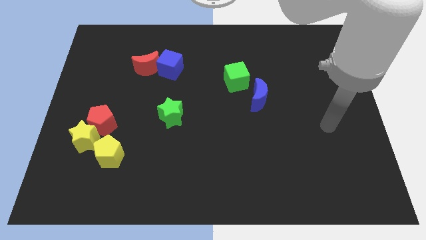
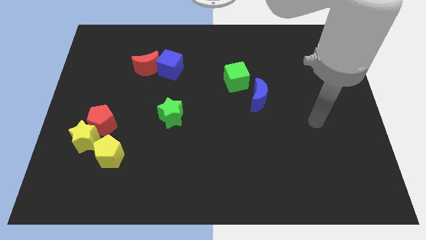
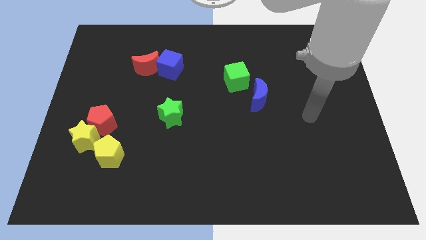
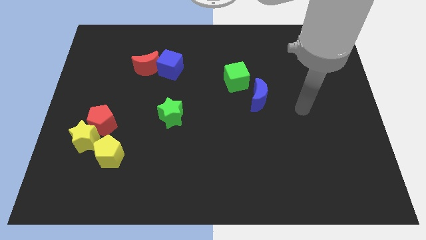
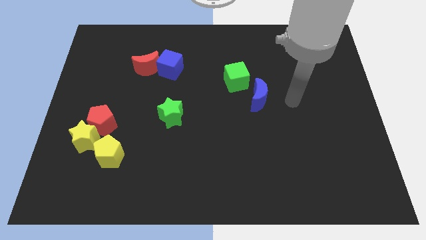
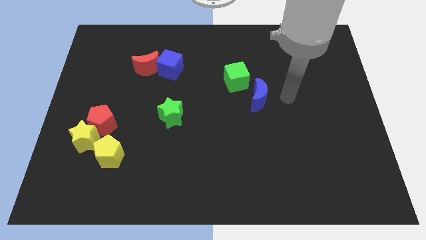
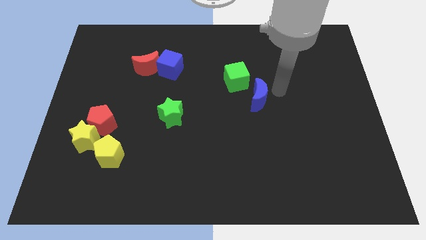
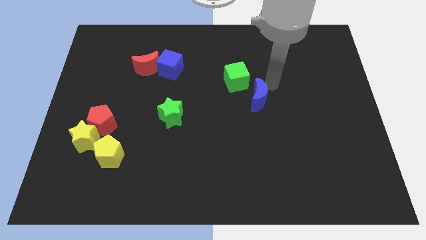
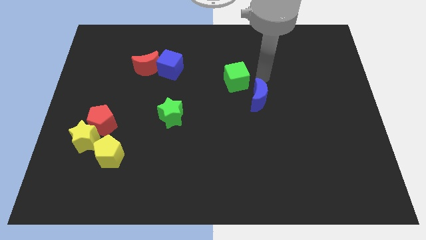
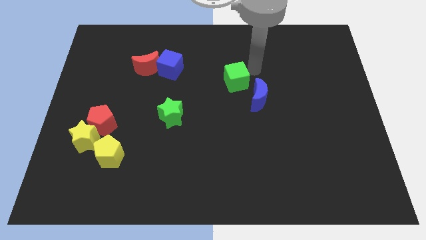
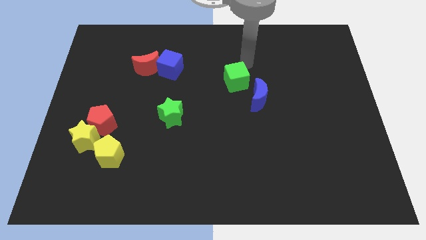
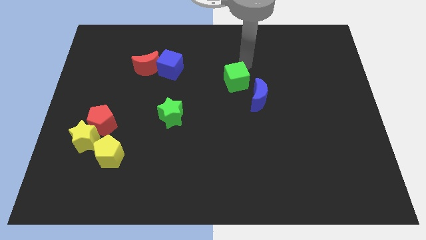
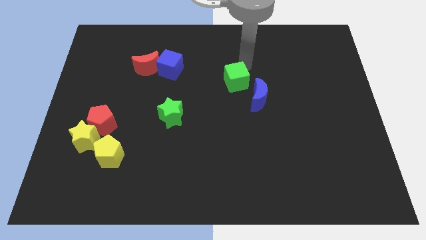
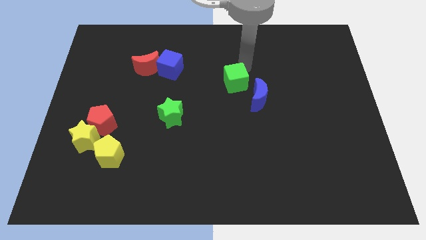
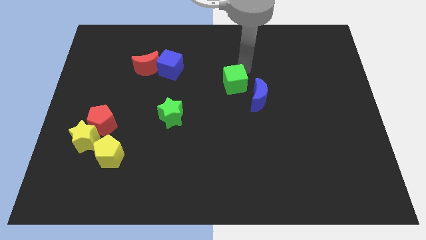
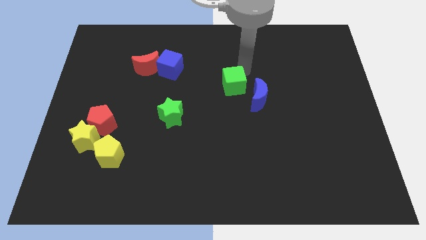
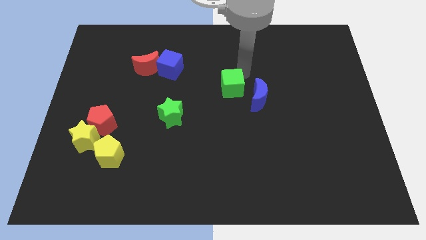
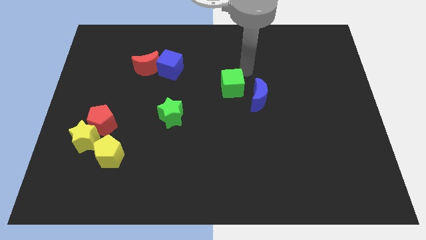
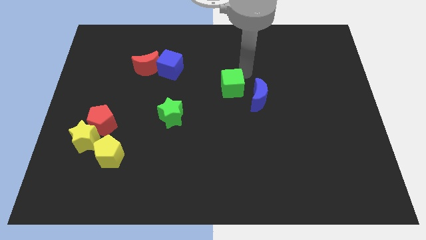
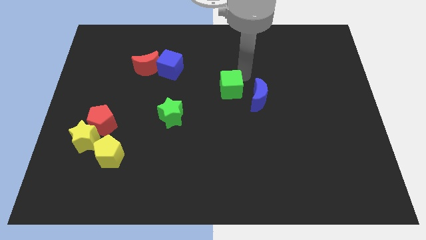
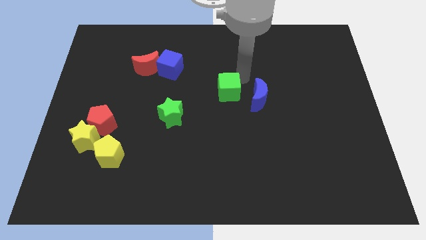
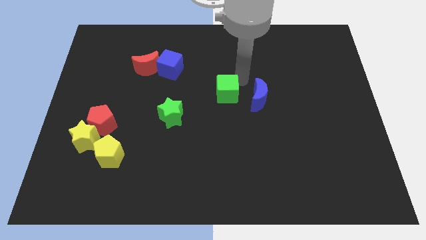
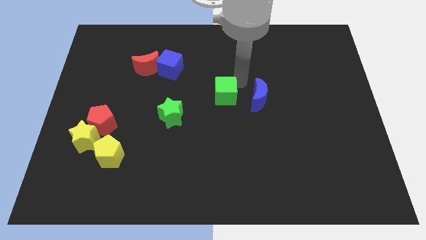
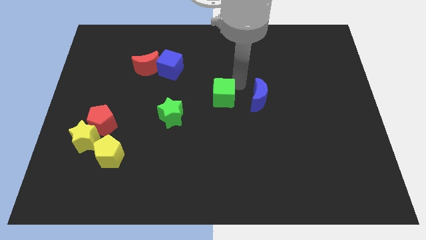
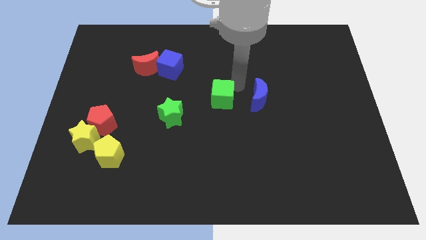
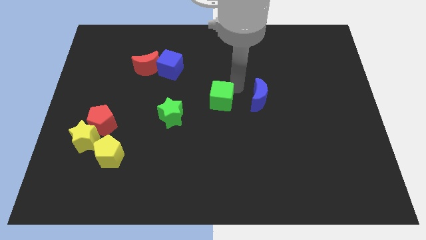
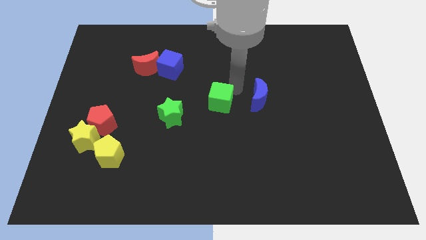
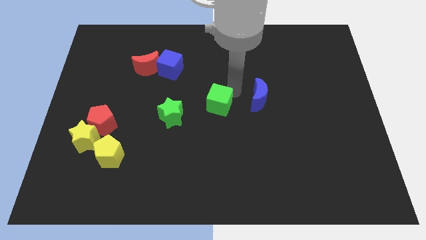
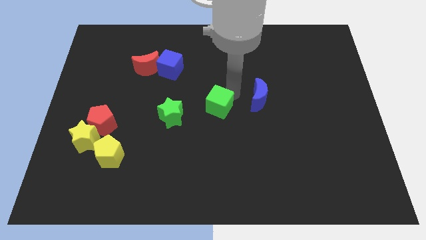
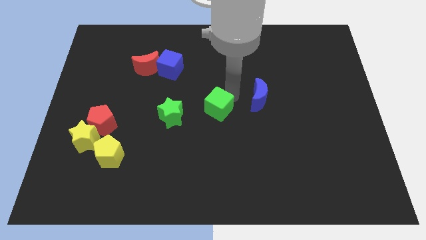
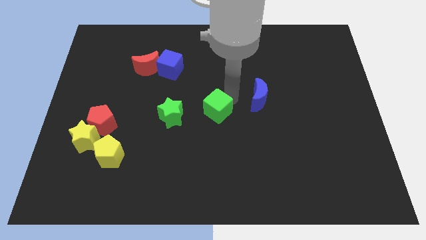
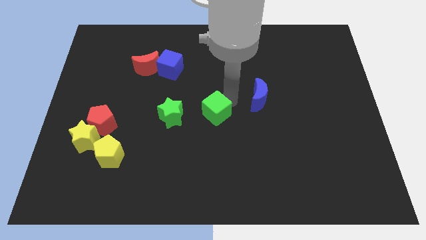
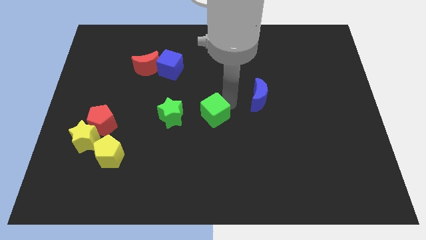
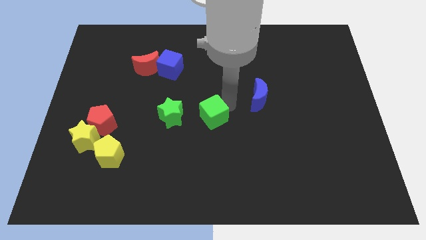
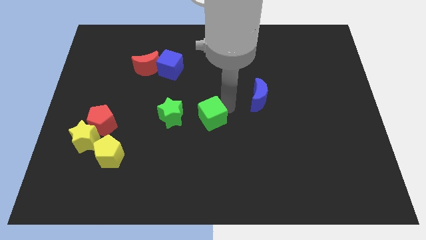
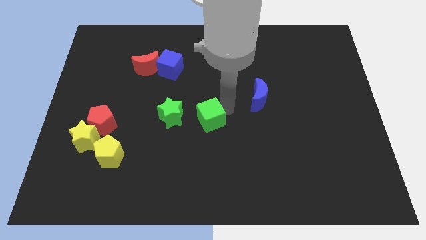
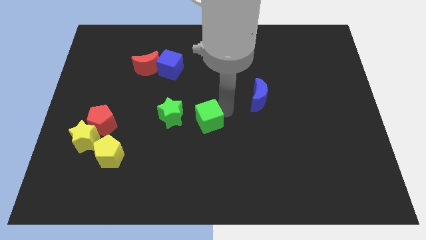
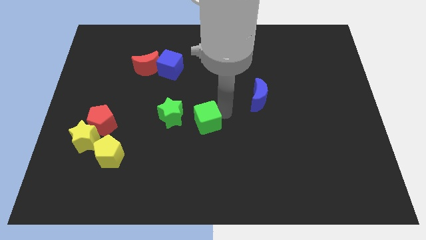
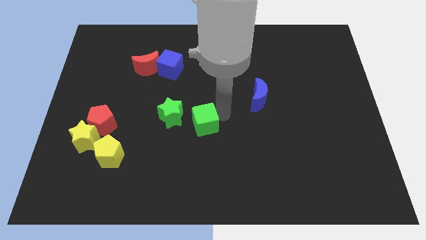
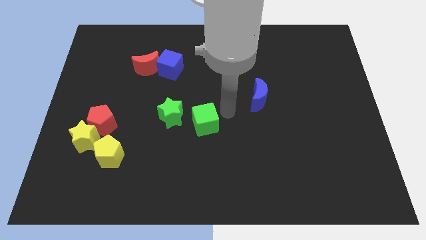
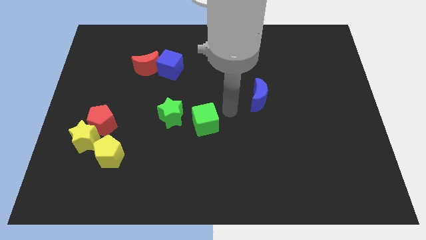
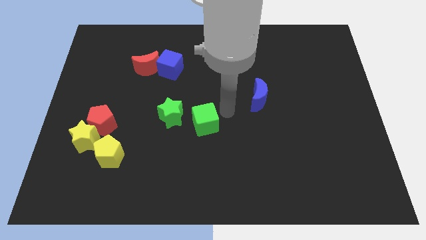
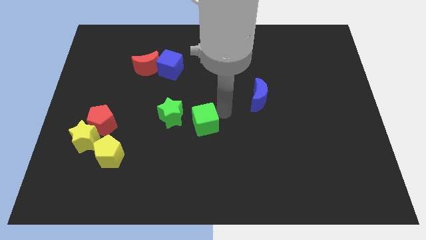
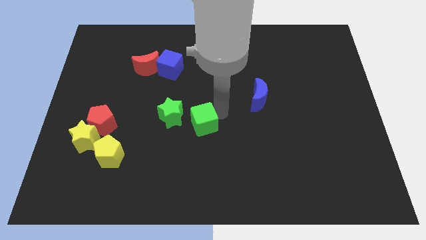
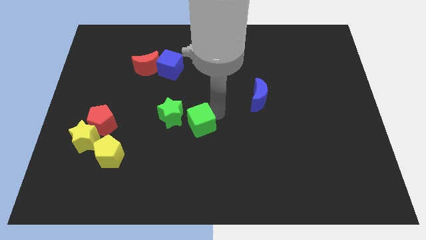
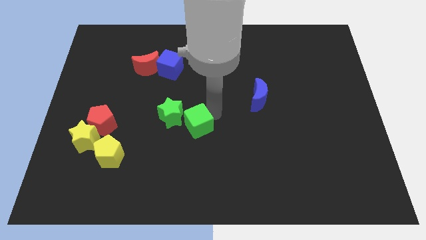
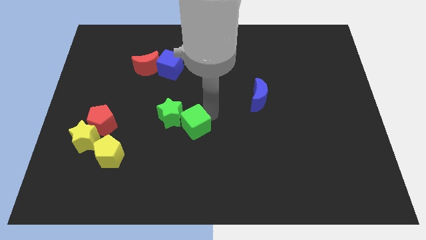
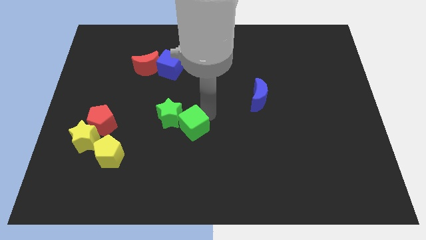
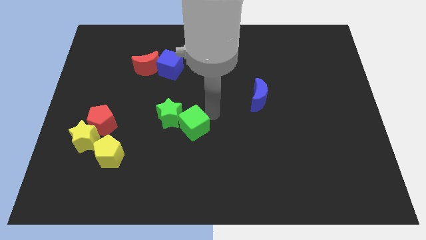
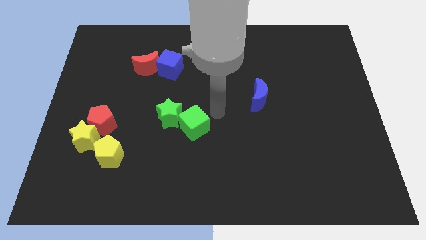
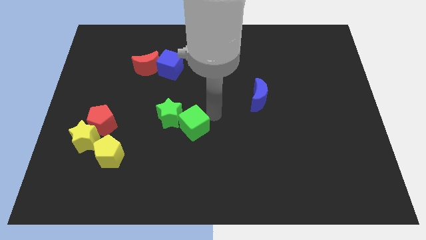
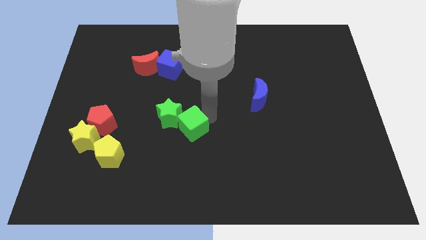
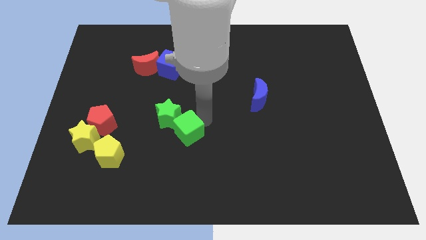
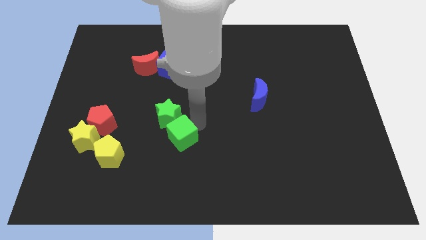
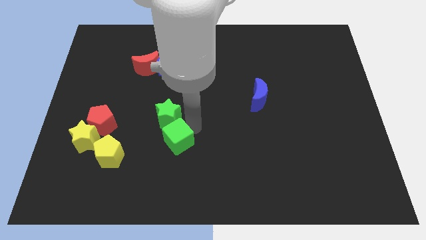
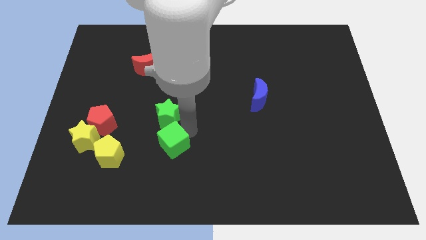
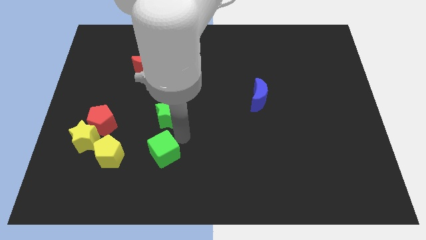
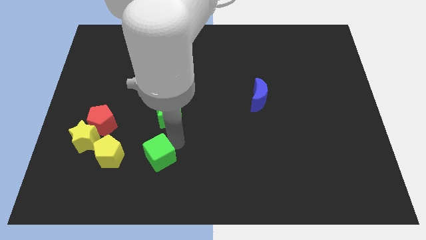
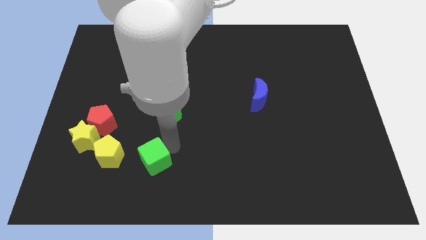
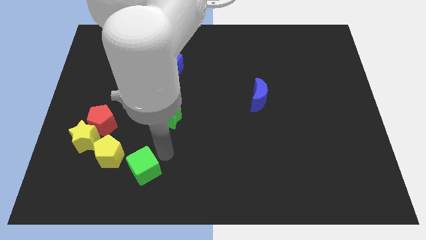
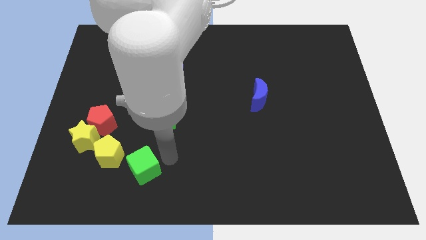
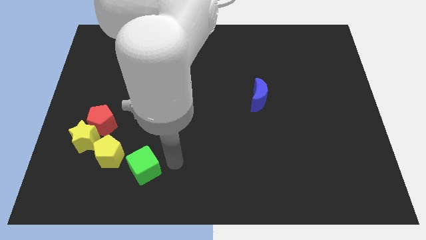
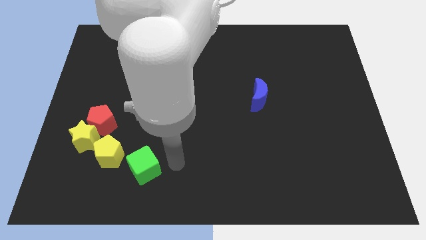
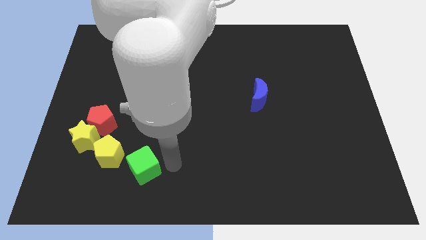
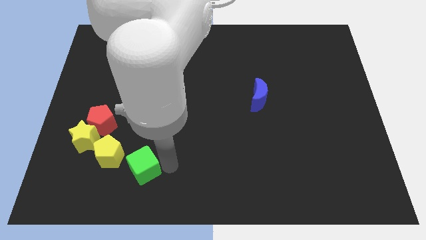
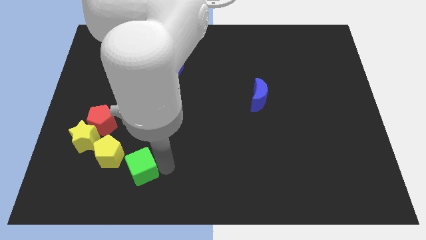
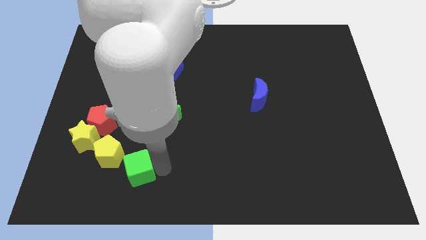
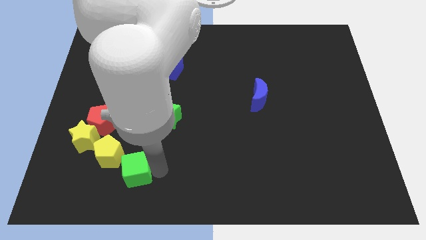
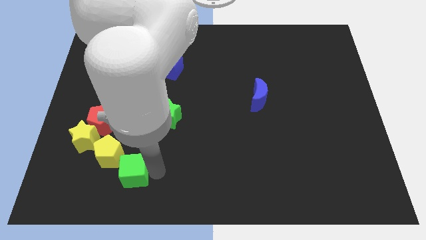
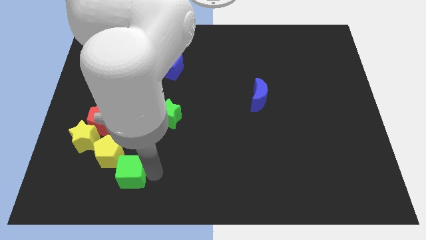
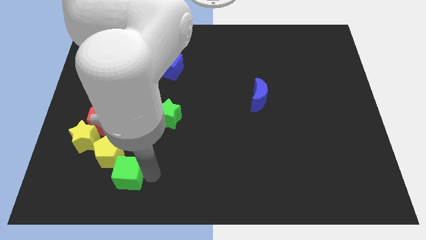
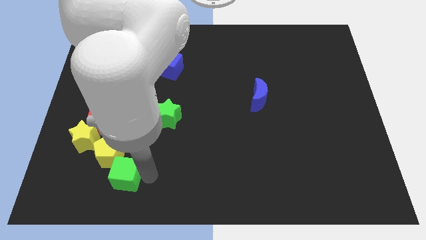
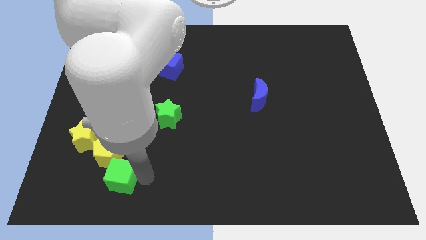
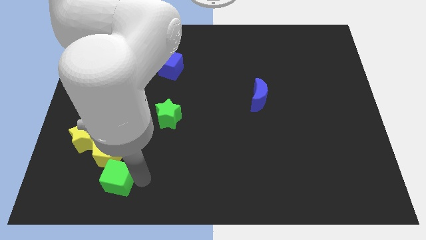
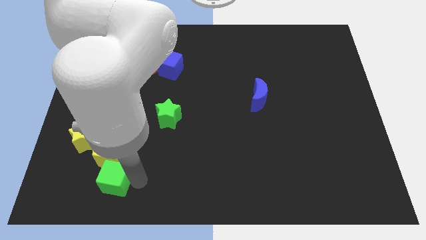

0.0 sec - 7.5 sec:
slide the green cube to the bottom right of the yellow star
